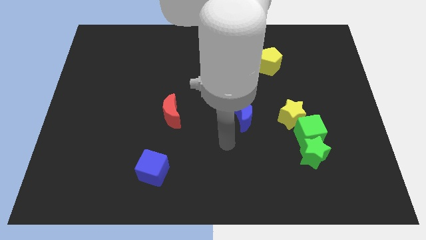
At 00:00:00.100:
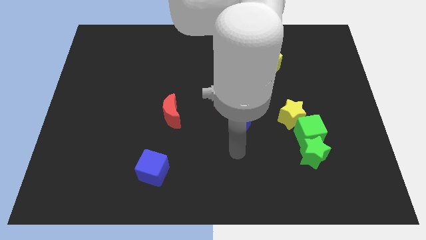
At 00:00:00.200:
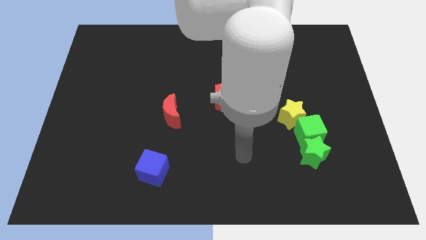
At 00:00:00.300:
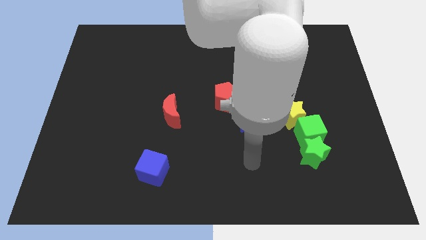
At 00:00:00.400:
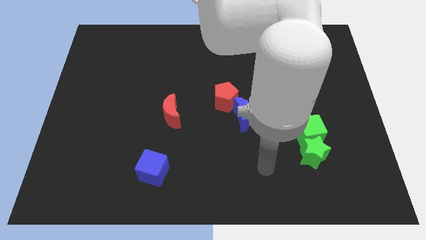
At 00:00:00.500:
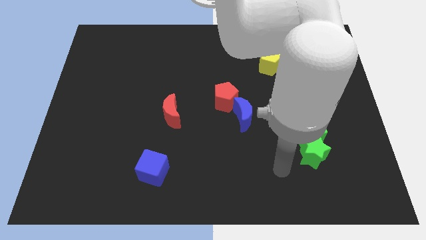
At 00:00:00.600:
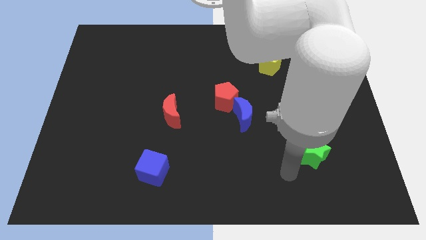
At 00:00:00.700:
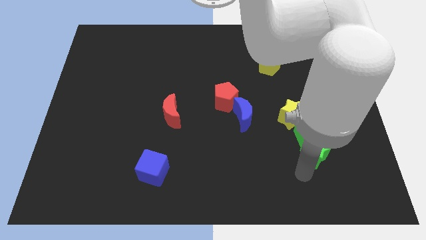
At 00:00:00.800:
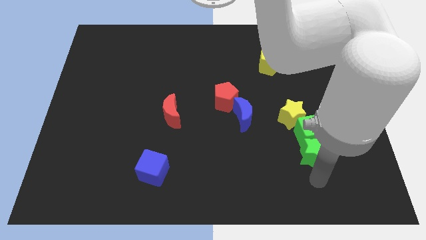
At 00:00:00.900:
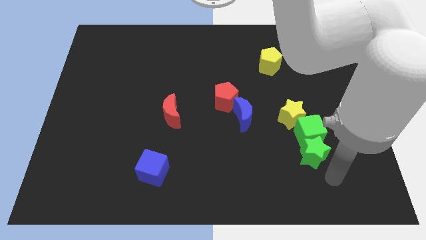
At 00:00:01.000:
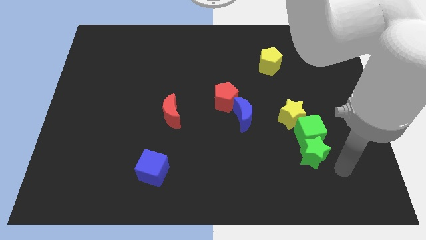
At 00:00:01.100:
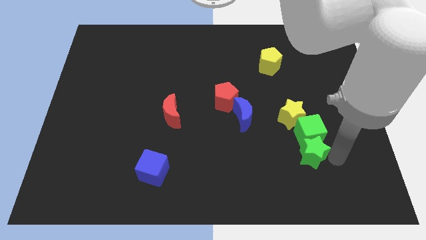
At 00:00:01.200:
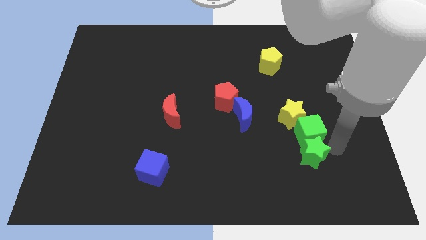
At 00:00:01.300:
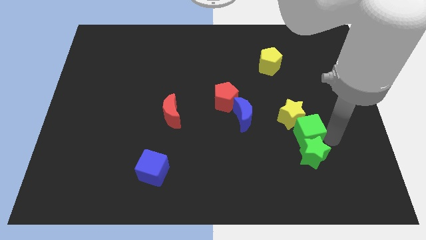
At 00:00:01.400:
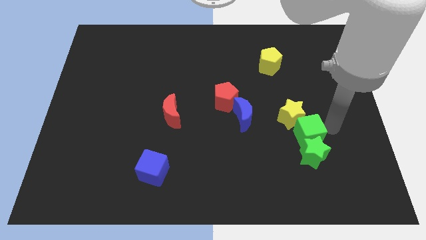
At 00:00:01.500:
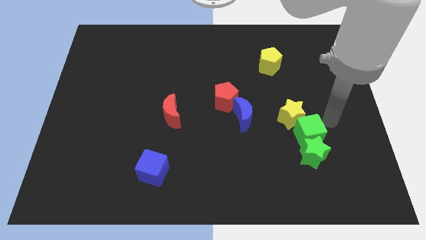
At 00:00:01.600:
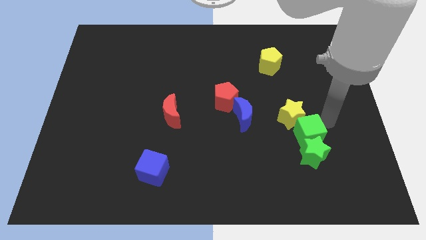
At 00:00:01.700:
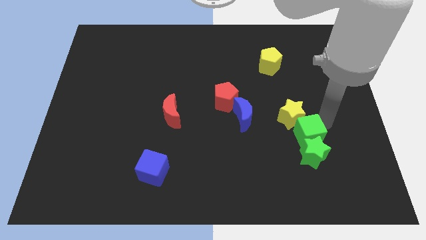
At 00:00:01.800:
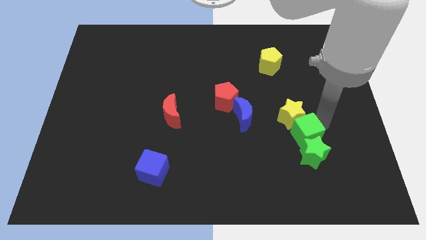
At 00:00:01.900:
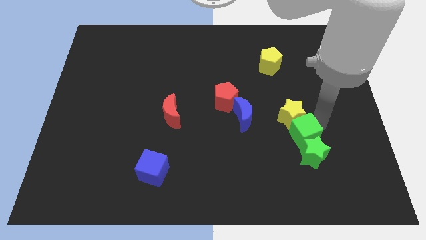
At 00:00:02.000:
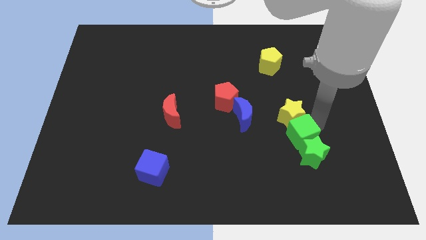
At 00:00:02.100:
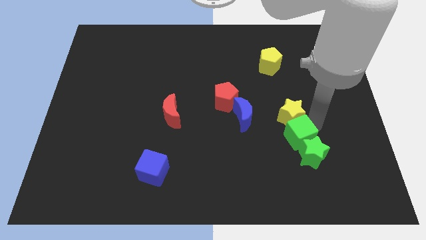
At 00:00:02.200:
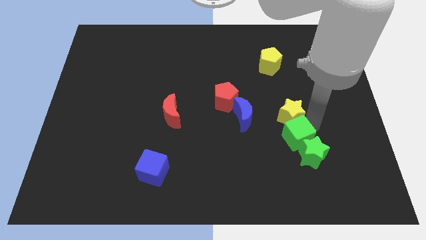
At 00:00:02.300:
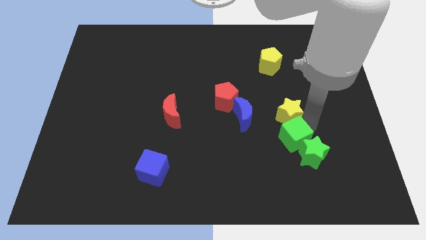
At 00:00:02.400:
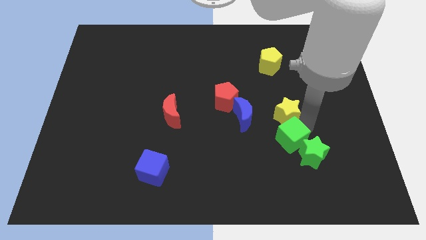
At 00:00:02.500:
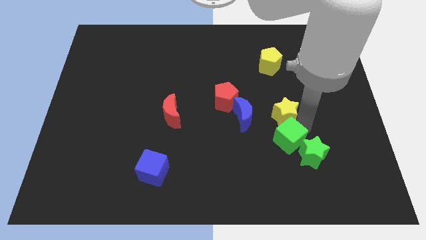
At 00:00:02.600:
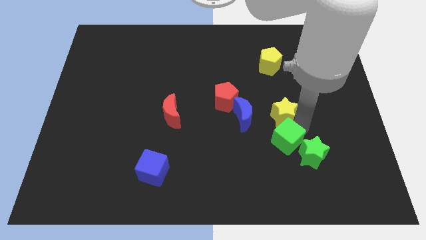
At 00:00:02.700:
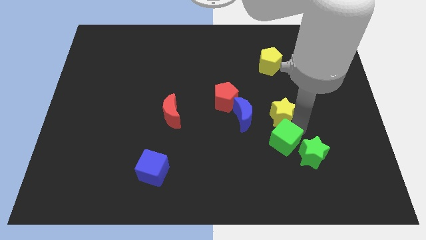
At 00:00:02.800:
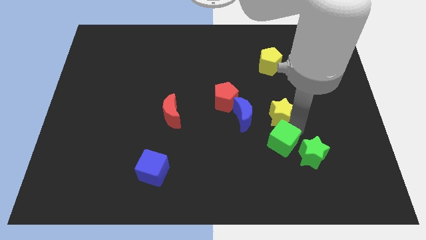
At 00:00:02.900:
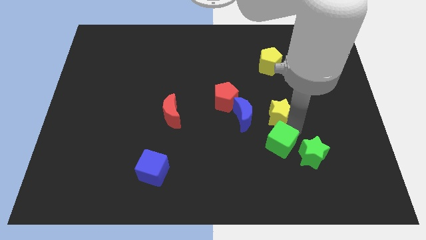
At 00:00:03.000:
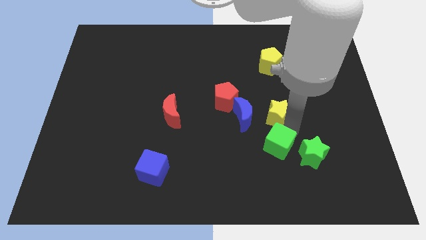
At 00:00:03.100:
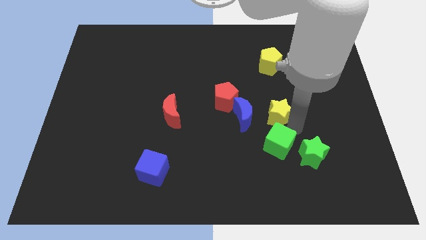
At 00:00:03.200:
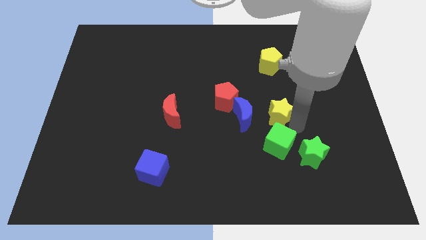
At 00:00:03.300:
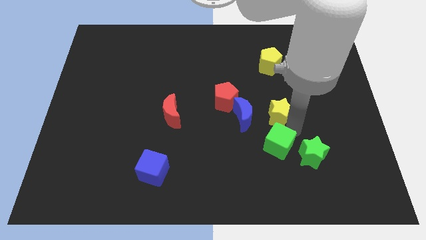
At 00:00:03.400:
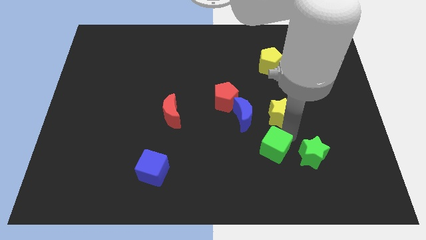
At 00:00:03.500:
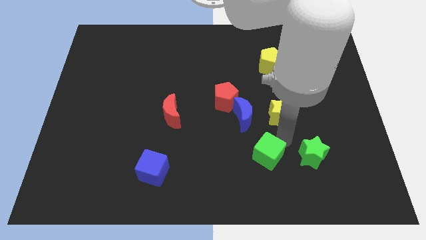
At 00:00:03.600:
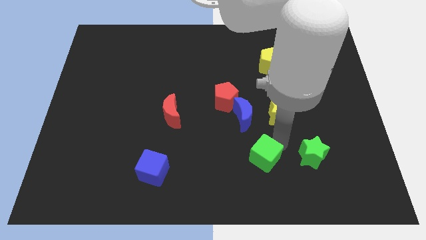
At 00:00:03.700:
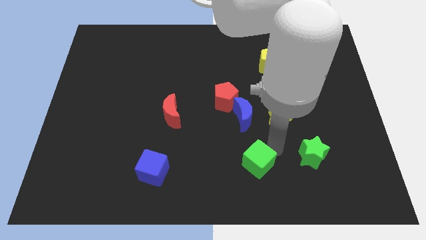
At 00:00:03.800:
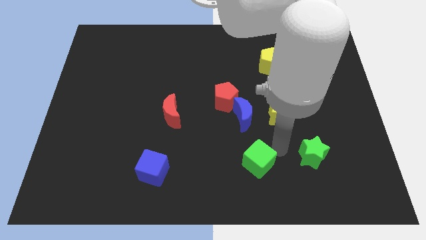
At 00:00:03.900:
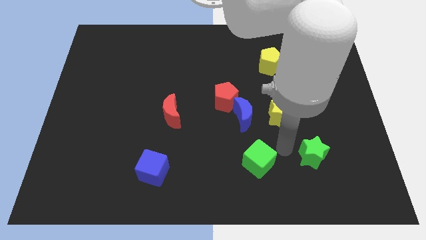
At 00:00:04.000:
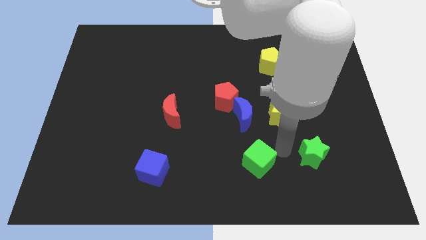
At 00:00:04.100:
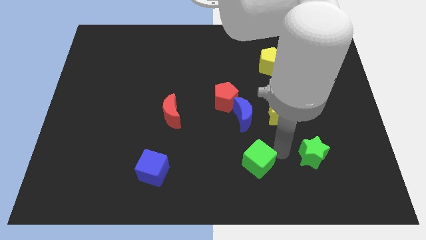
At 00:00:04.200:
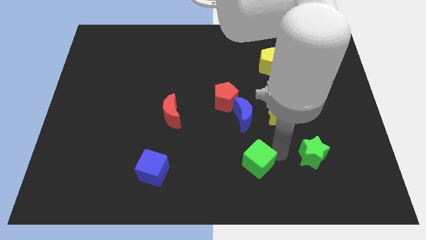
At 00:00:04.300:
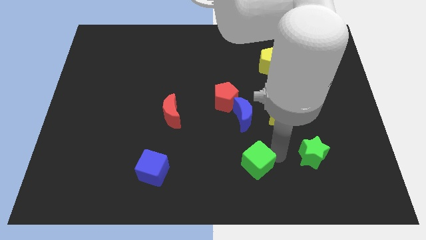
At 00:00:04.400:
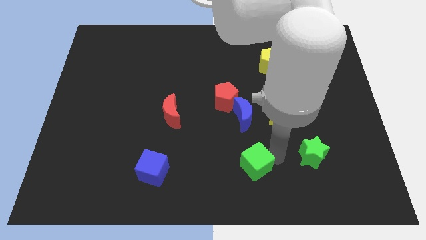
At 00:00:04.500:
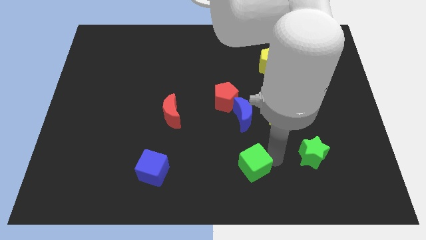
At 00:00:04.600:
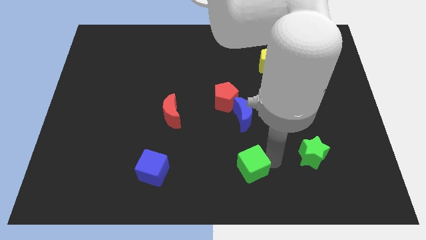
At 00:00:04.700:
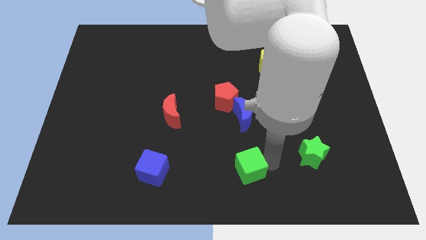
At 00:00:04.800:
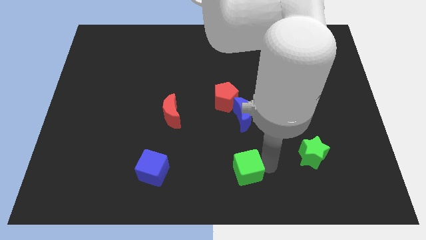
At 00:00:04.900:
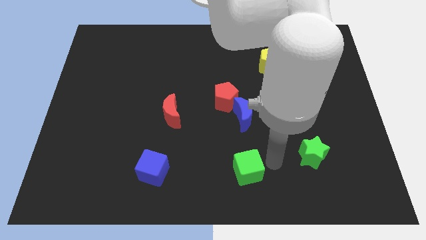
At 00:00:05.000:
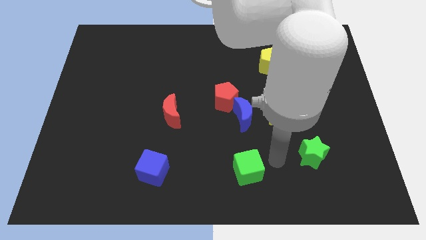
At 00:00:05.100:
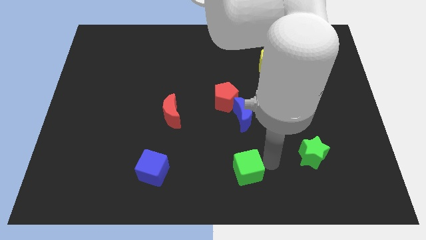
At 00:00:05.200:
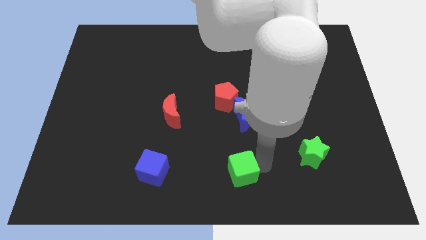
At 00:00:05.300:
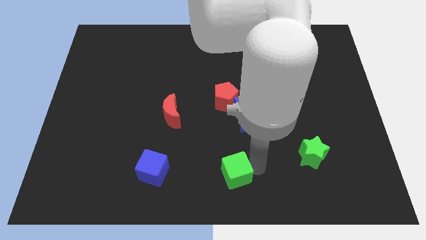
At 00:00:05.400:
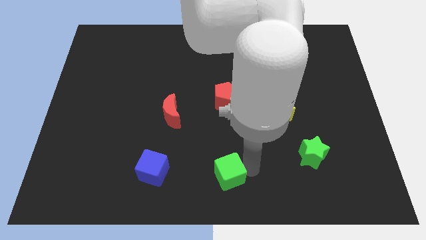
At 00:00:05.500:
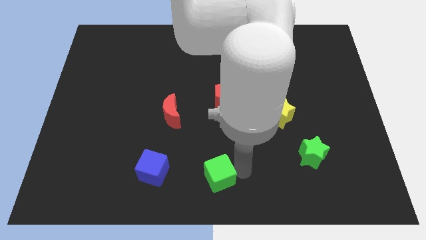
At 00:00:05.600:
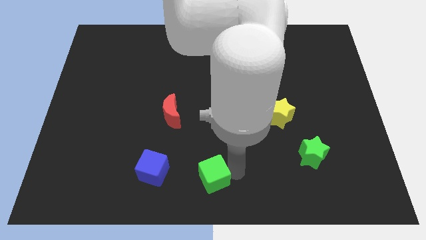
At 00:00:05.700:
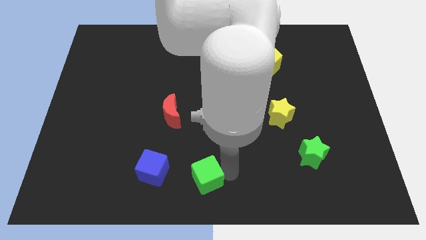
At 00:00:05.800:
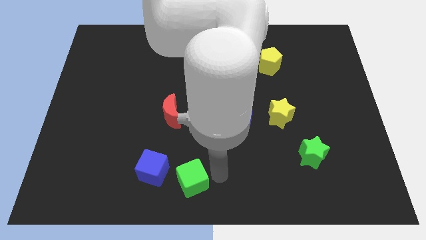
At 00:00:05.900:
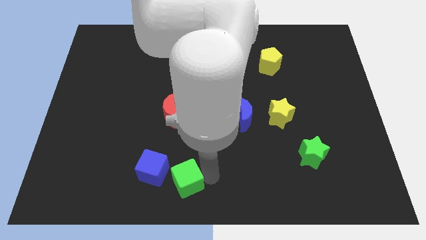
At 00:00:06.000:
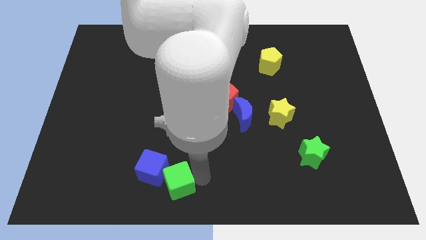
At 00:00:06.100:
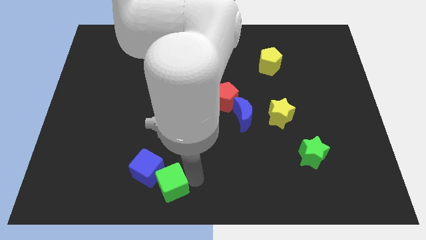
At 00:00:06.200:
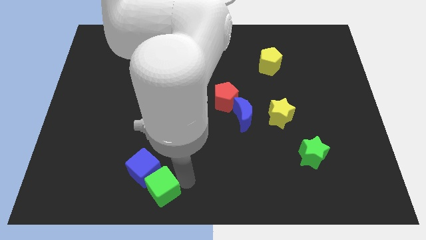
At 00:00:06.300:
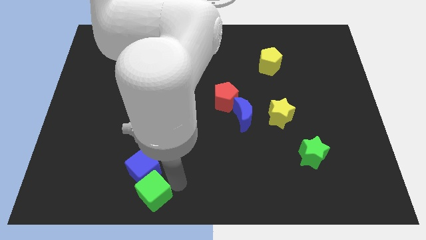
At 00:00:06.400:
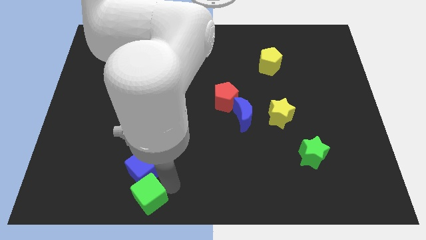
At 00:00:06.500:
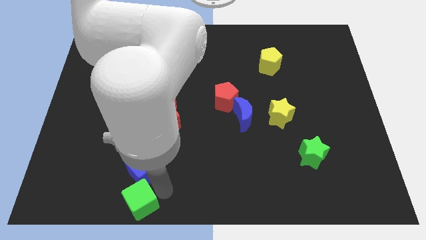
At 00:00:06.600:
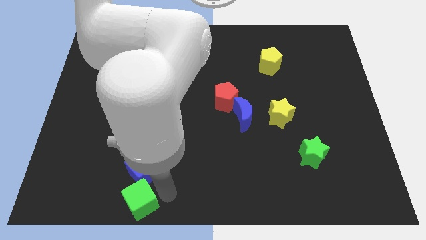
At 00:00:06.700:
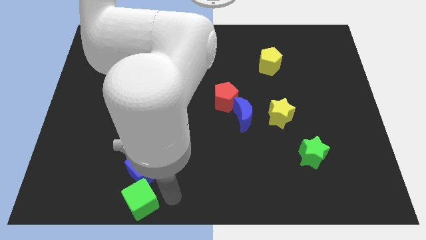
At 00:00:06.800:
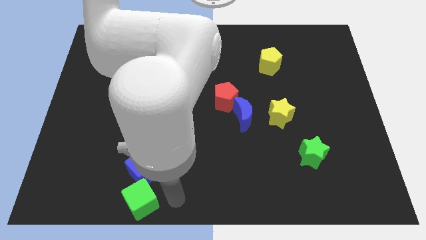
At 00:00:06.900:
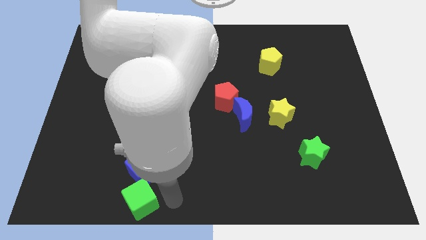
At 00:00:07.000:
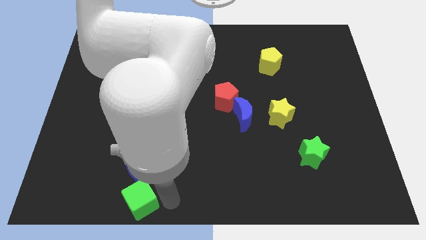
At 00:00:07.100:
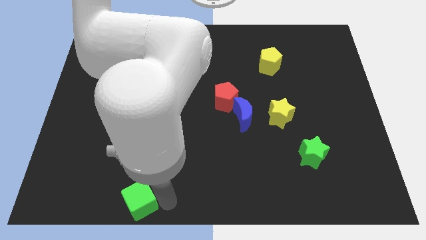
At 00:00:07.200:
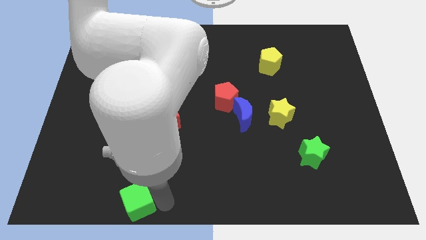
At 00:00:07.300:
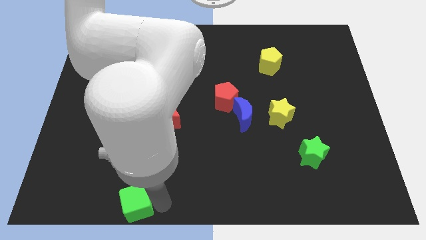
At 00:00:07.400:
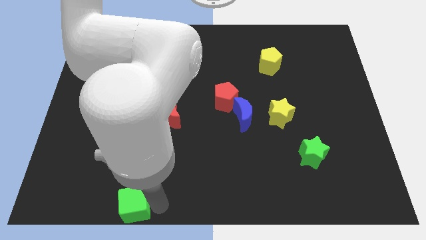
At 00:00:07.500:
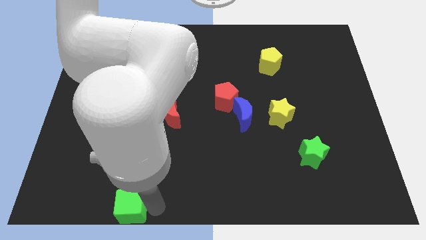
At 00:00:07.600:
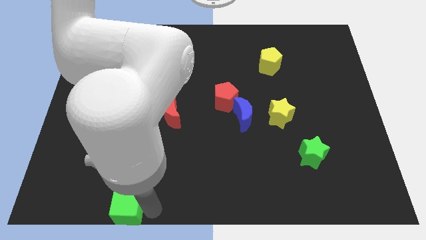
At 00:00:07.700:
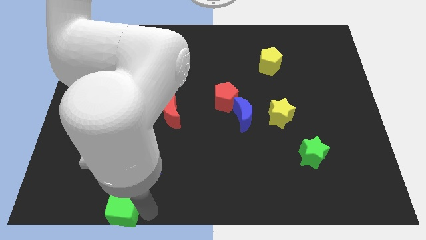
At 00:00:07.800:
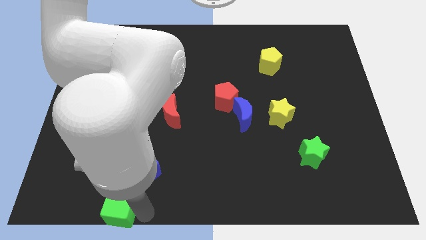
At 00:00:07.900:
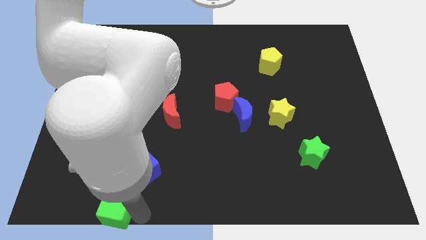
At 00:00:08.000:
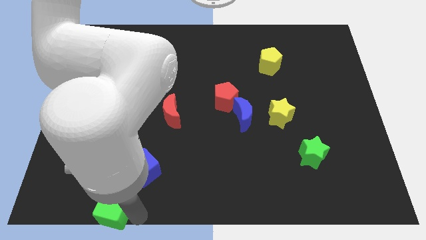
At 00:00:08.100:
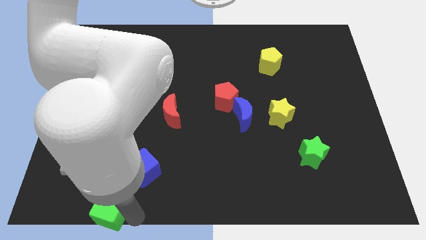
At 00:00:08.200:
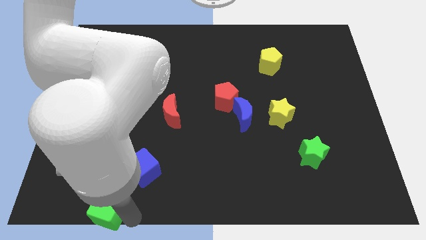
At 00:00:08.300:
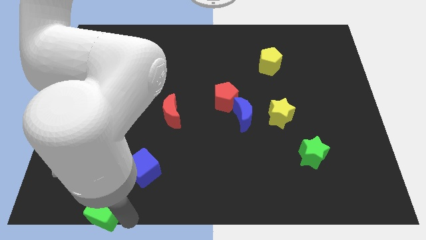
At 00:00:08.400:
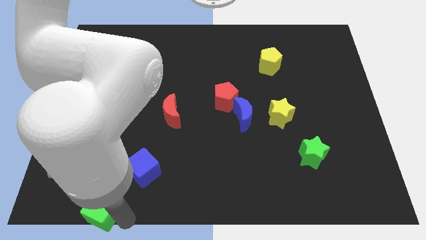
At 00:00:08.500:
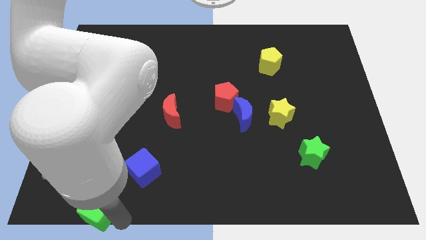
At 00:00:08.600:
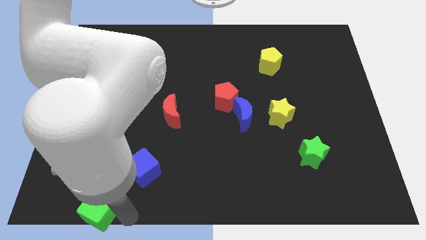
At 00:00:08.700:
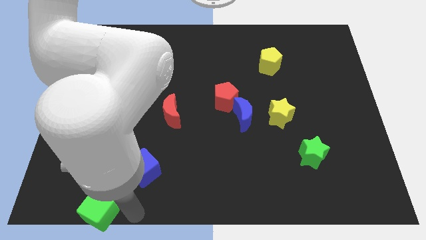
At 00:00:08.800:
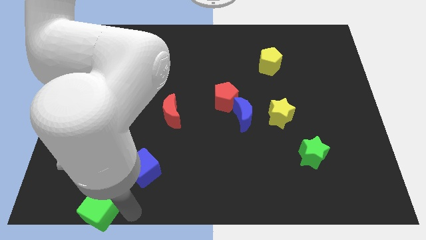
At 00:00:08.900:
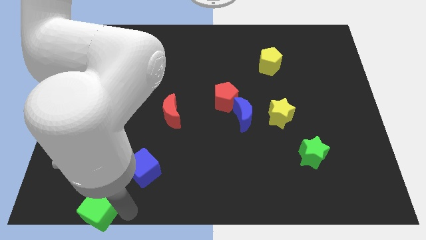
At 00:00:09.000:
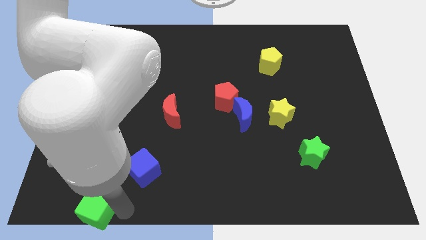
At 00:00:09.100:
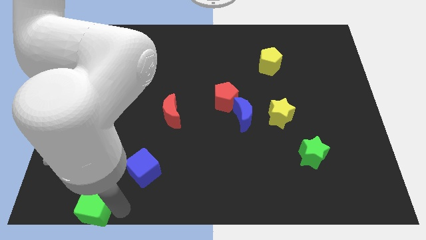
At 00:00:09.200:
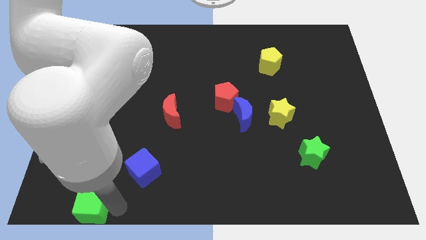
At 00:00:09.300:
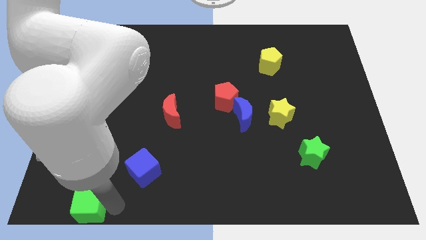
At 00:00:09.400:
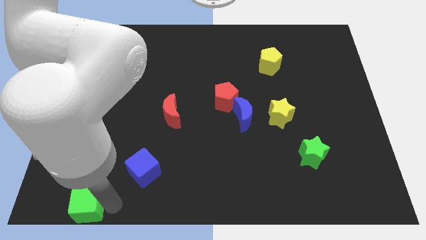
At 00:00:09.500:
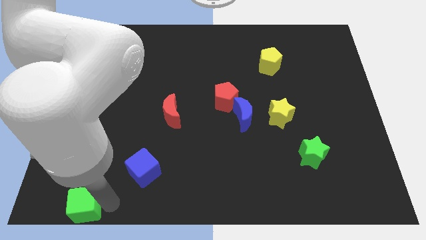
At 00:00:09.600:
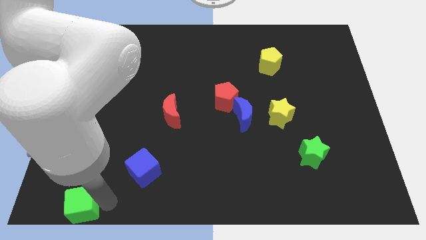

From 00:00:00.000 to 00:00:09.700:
push the green cube to the bottom left of the board
